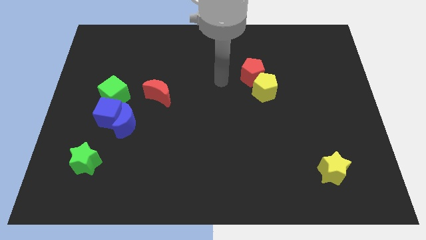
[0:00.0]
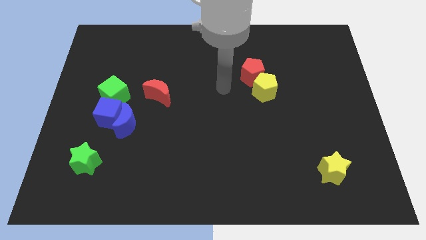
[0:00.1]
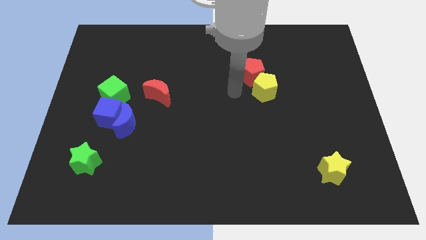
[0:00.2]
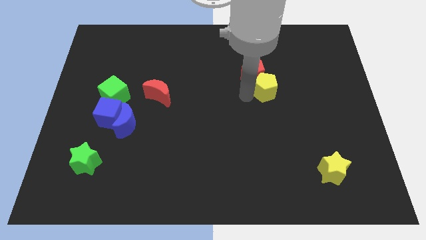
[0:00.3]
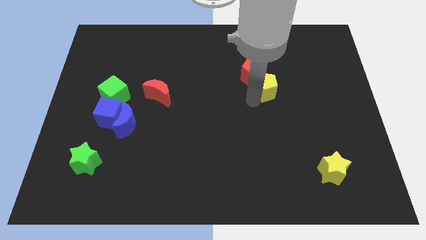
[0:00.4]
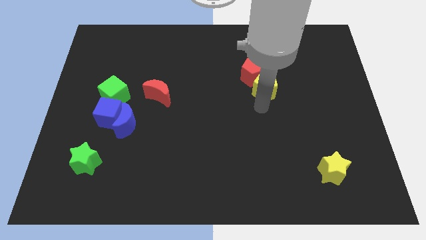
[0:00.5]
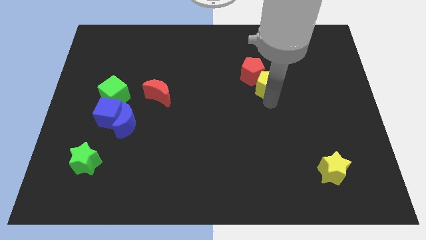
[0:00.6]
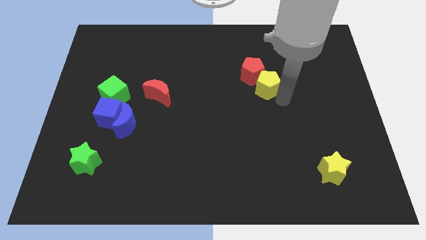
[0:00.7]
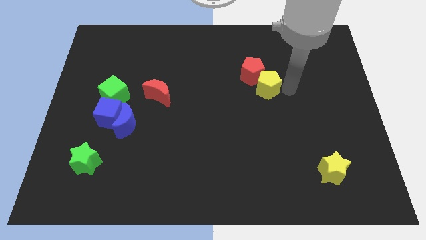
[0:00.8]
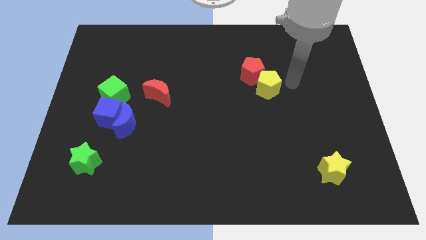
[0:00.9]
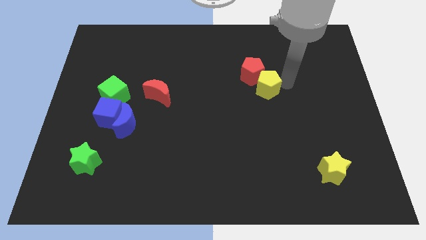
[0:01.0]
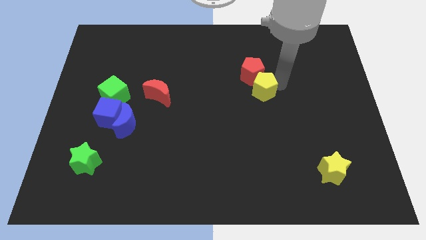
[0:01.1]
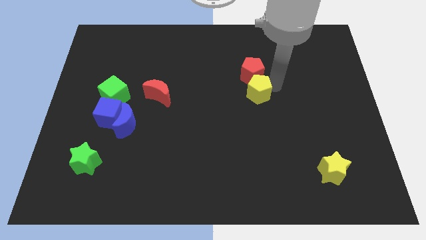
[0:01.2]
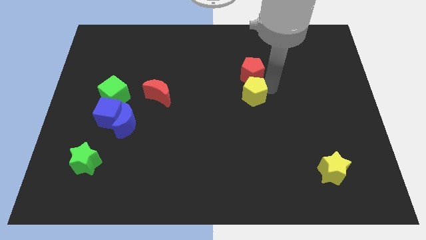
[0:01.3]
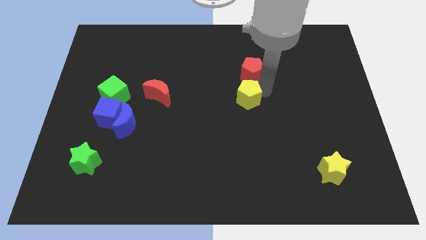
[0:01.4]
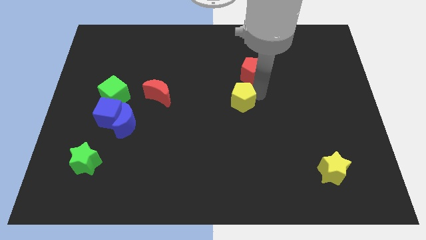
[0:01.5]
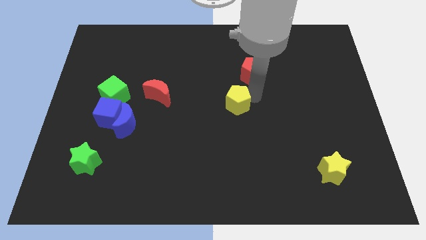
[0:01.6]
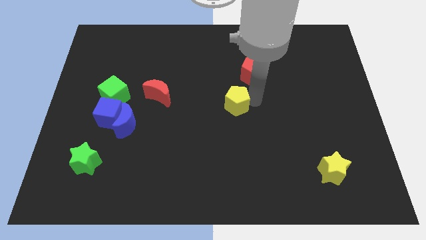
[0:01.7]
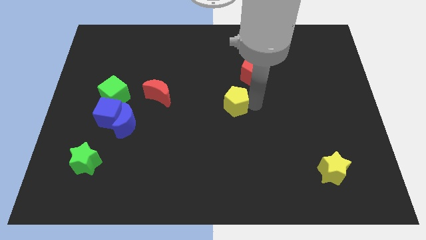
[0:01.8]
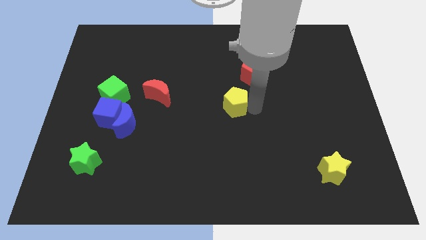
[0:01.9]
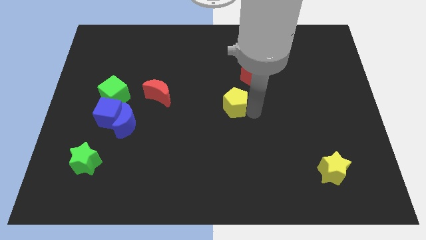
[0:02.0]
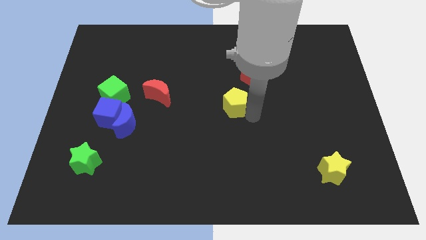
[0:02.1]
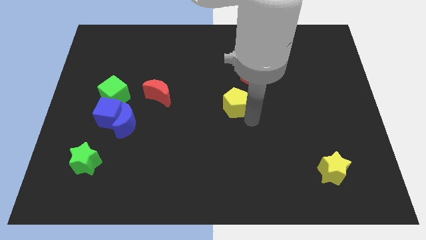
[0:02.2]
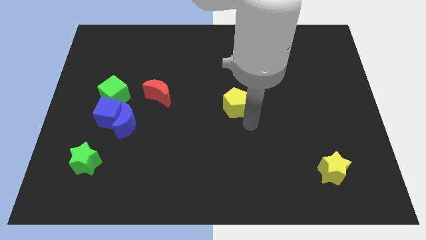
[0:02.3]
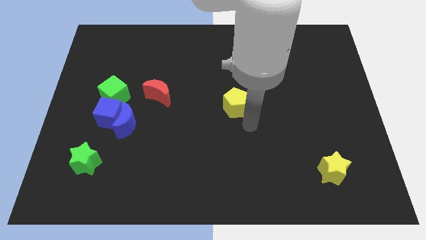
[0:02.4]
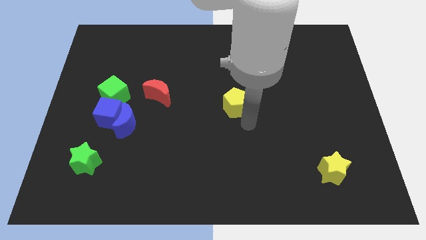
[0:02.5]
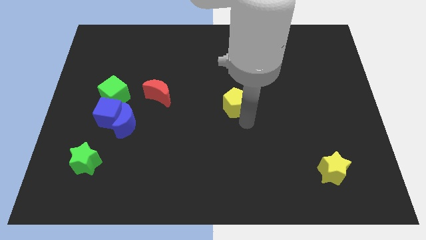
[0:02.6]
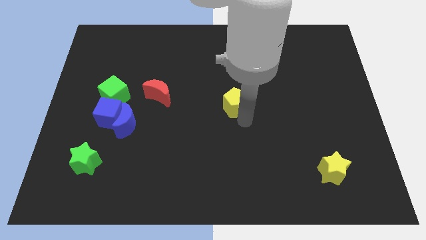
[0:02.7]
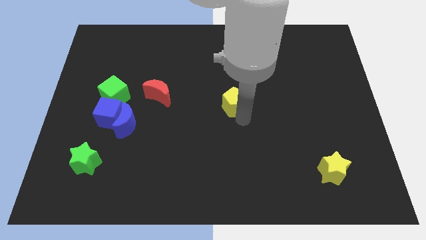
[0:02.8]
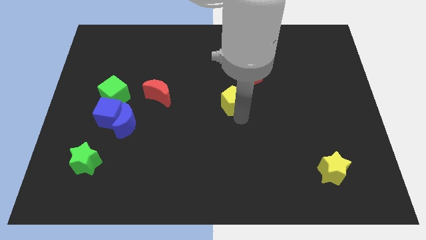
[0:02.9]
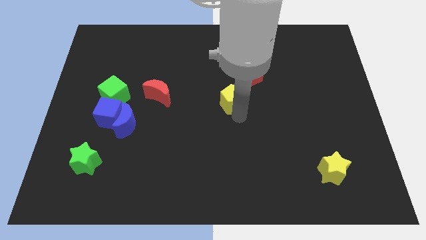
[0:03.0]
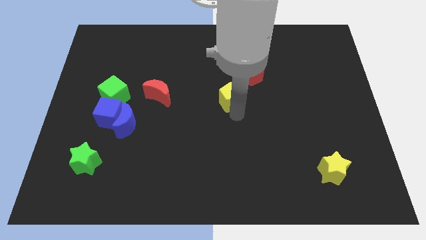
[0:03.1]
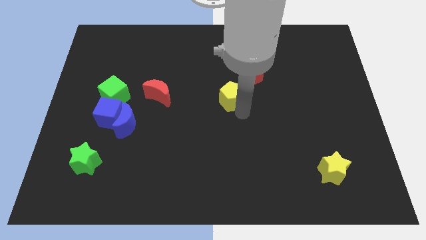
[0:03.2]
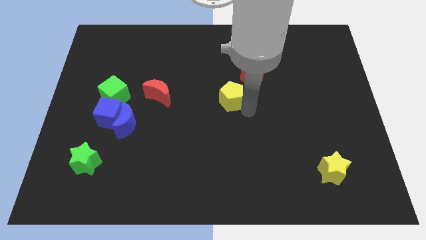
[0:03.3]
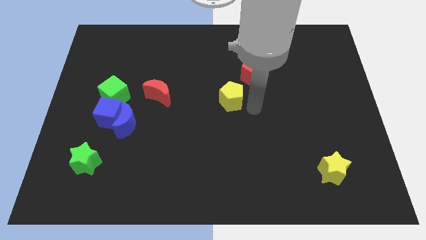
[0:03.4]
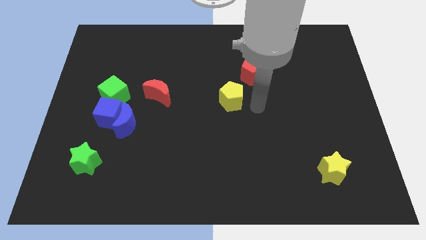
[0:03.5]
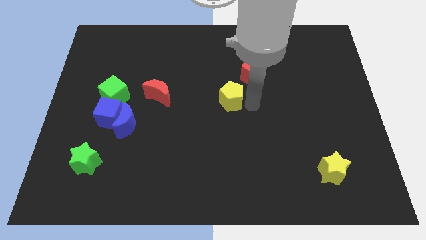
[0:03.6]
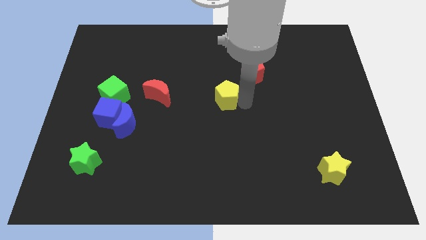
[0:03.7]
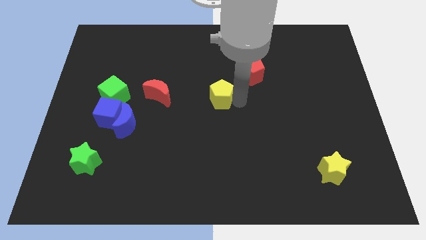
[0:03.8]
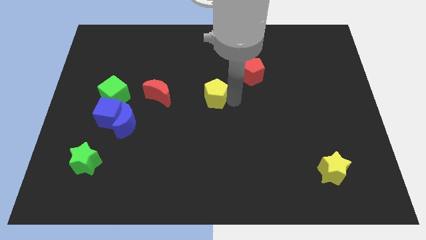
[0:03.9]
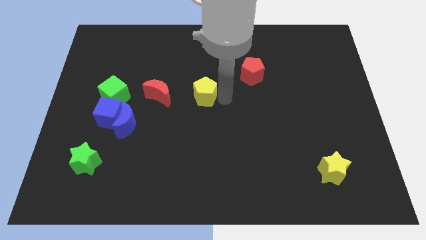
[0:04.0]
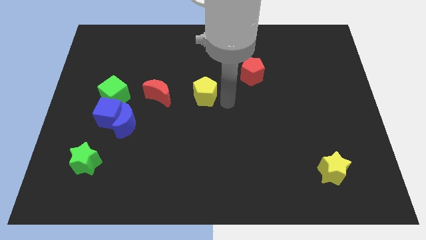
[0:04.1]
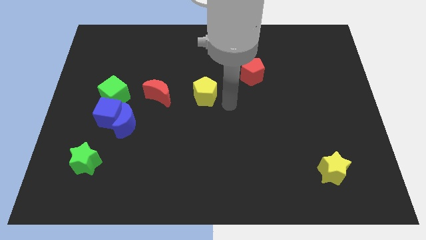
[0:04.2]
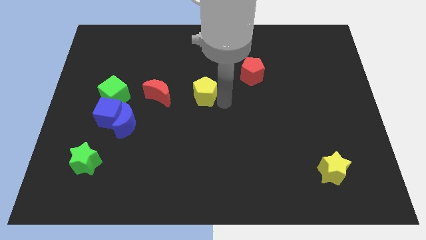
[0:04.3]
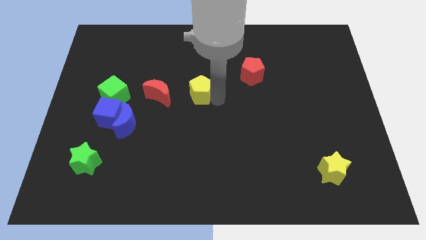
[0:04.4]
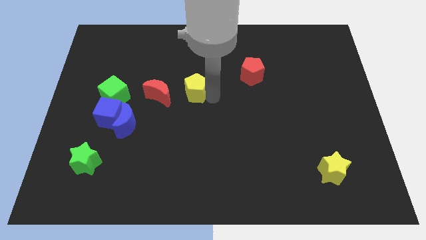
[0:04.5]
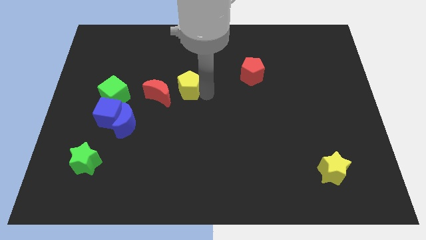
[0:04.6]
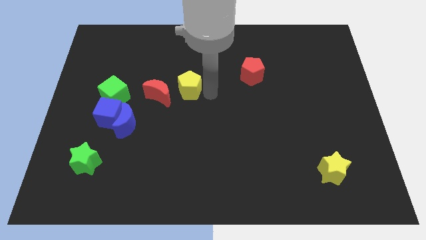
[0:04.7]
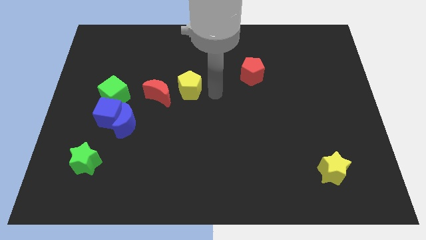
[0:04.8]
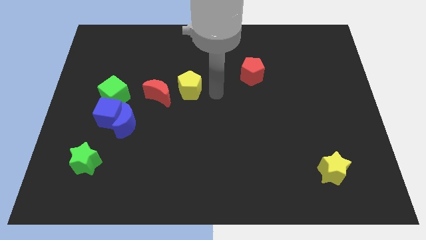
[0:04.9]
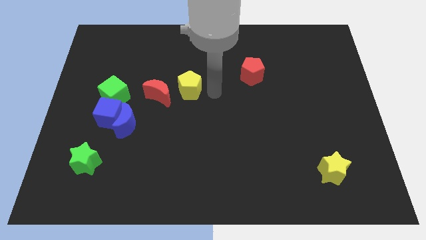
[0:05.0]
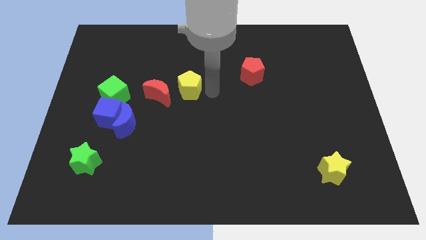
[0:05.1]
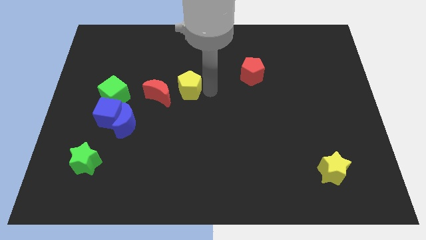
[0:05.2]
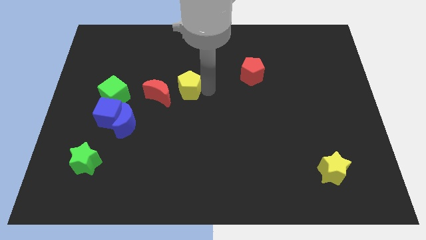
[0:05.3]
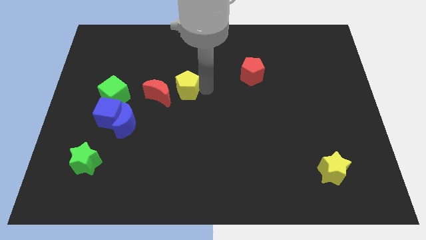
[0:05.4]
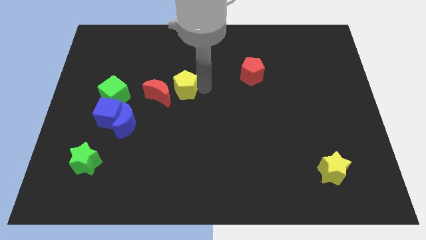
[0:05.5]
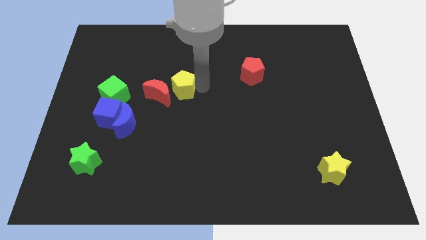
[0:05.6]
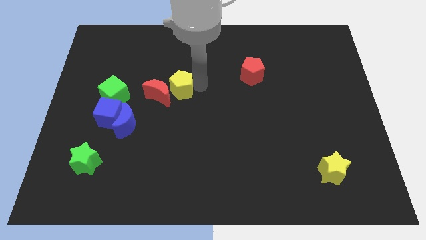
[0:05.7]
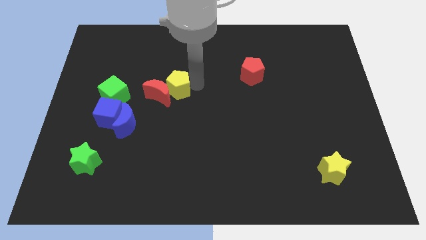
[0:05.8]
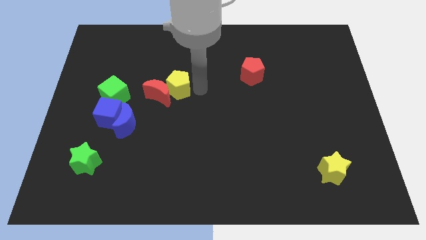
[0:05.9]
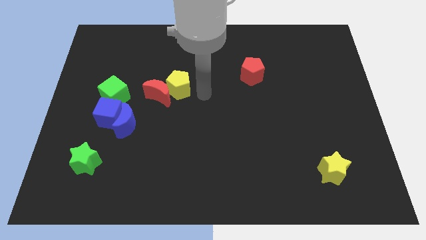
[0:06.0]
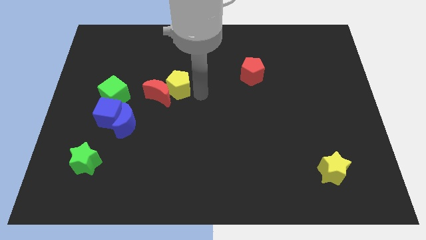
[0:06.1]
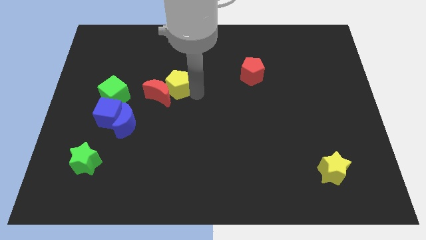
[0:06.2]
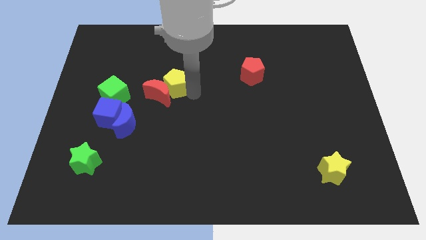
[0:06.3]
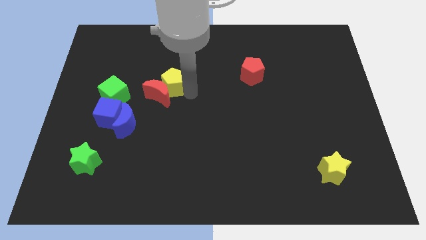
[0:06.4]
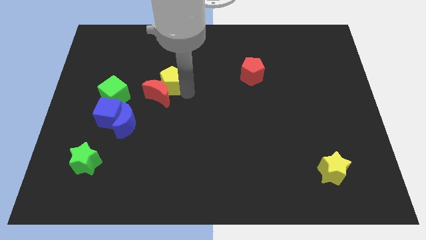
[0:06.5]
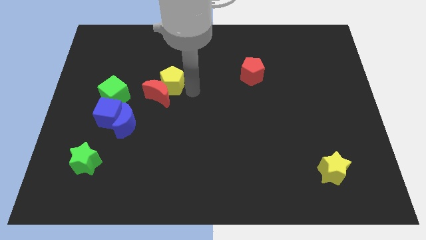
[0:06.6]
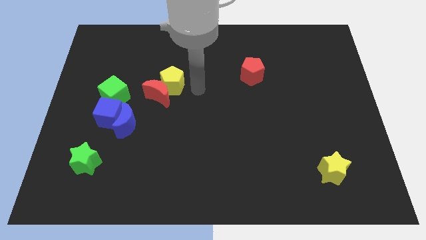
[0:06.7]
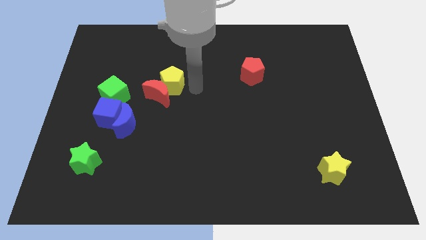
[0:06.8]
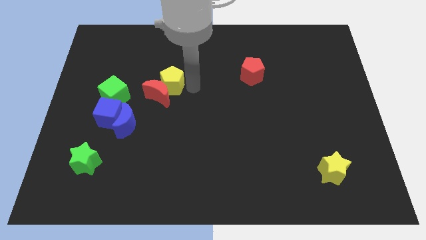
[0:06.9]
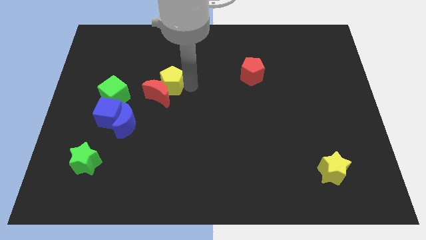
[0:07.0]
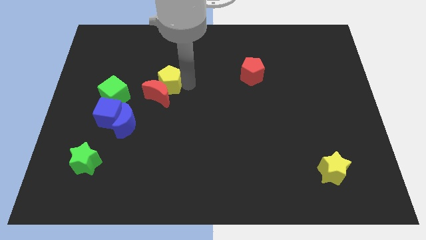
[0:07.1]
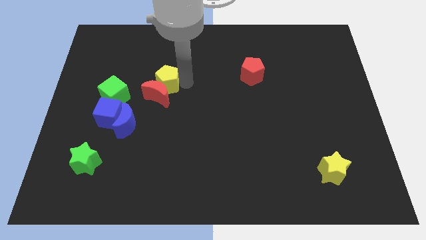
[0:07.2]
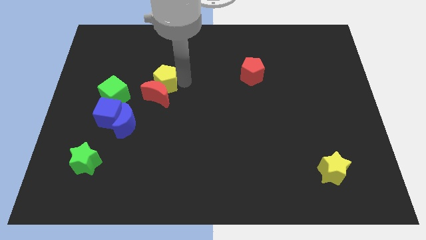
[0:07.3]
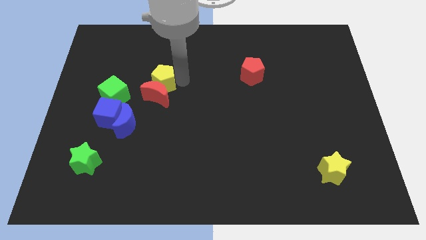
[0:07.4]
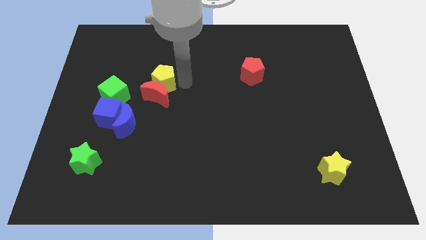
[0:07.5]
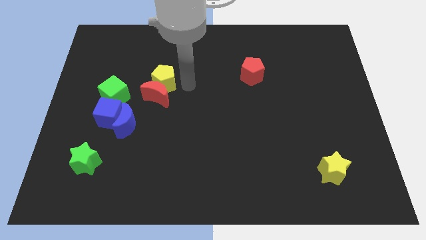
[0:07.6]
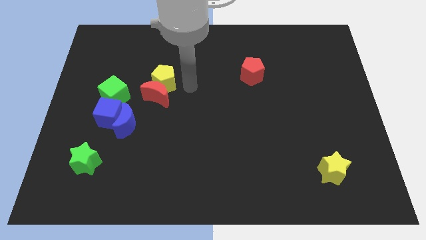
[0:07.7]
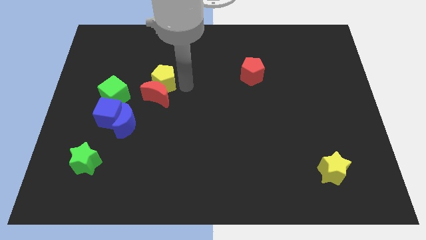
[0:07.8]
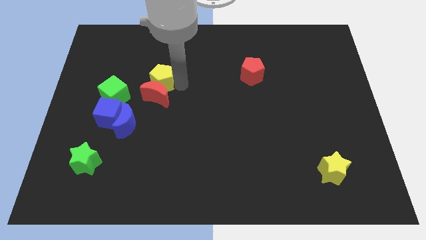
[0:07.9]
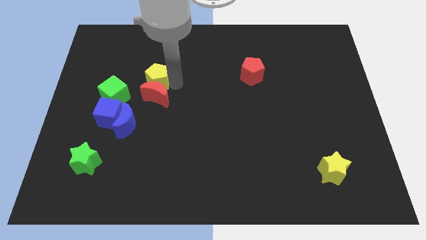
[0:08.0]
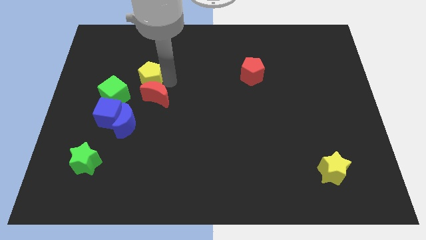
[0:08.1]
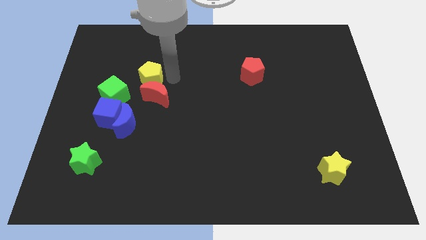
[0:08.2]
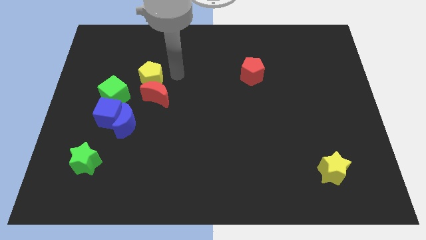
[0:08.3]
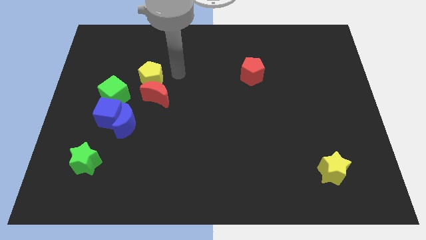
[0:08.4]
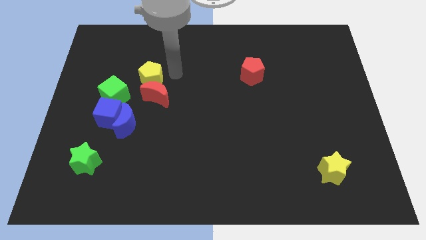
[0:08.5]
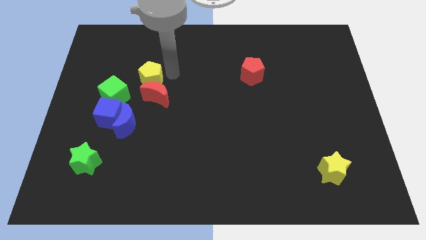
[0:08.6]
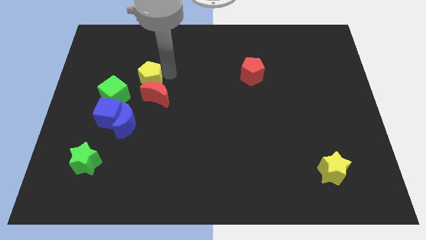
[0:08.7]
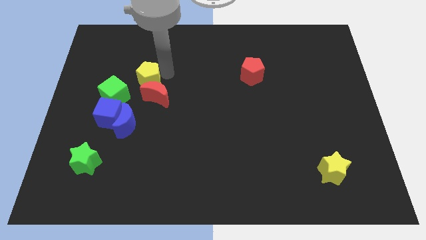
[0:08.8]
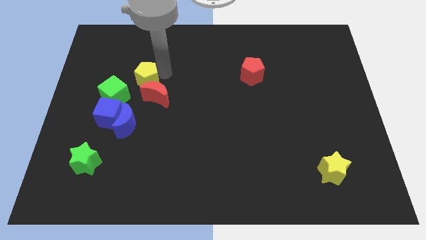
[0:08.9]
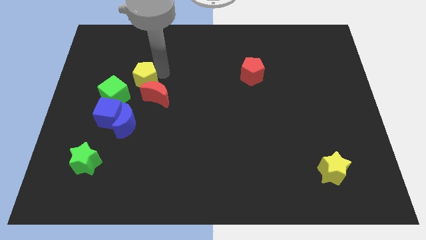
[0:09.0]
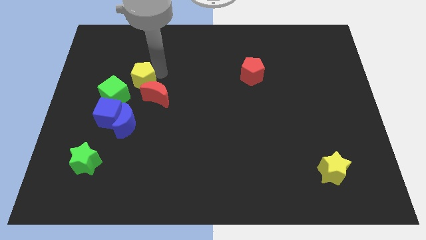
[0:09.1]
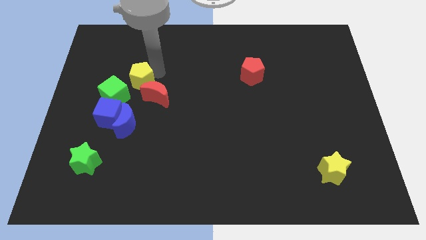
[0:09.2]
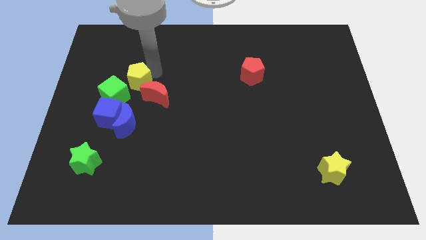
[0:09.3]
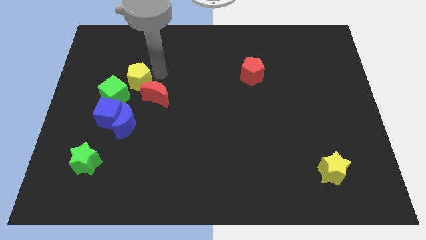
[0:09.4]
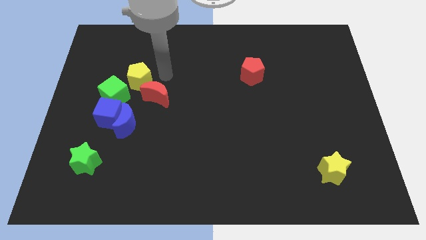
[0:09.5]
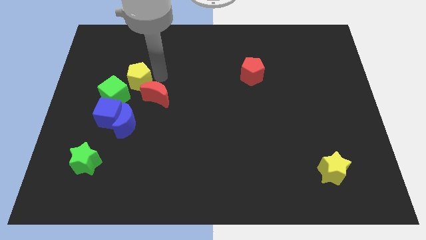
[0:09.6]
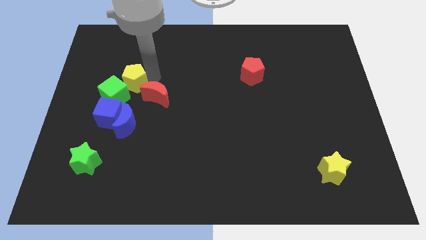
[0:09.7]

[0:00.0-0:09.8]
slide the yellow pentagon above the blue cube
